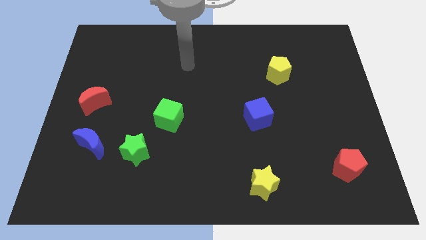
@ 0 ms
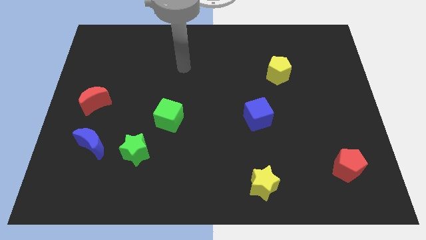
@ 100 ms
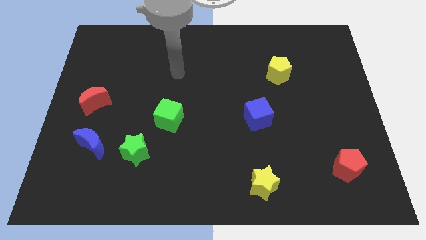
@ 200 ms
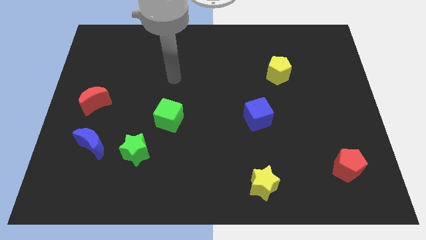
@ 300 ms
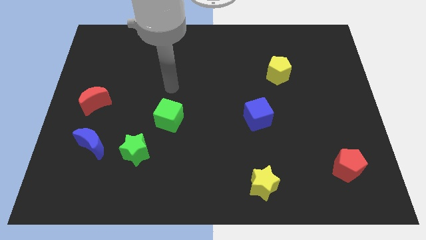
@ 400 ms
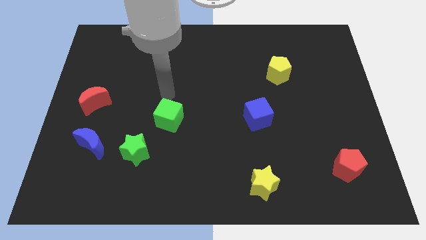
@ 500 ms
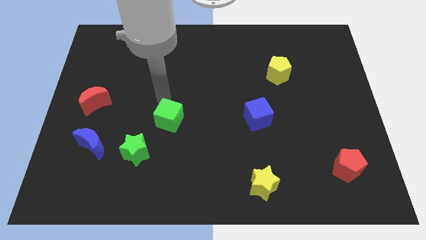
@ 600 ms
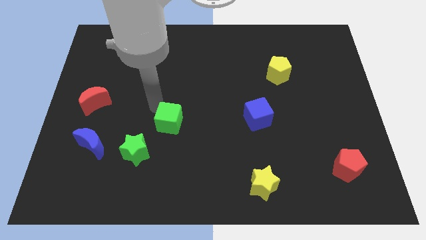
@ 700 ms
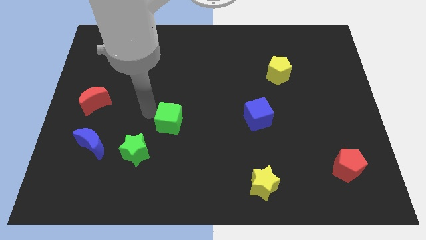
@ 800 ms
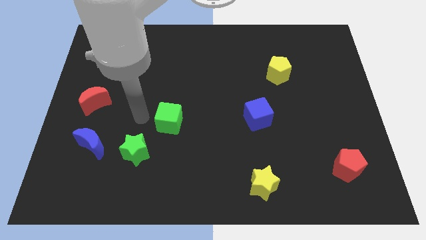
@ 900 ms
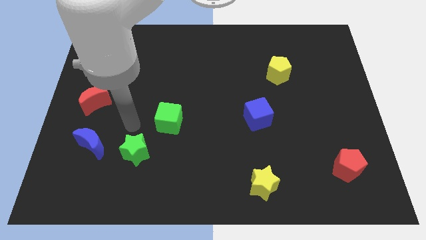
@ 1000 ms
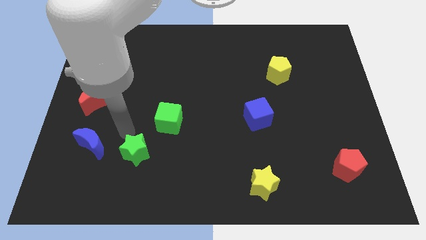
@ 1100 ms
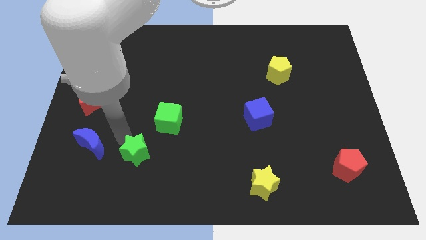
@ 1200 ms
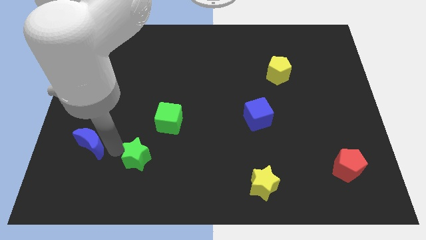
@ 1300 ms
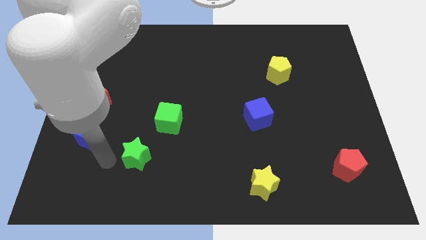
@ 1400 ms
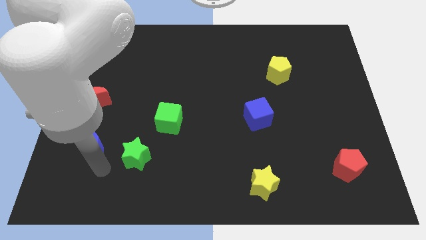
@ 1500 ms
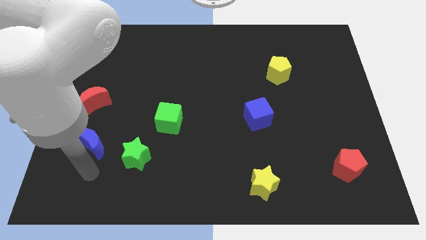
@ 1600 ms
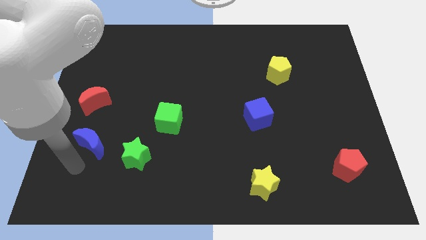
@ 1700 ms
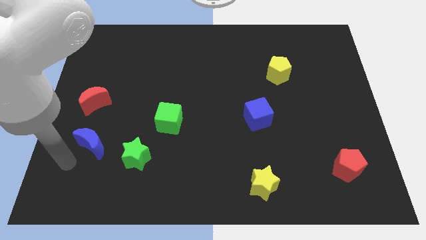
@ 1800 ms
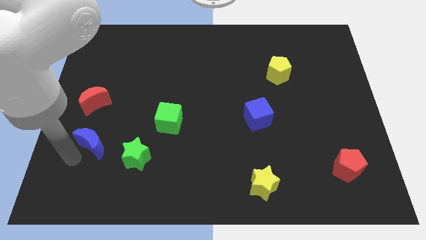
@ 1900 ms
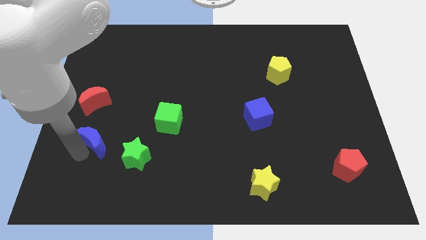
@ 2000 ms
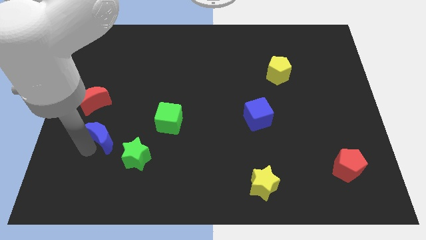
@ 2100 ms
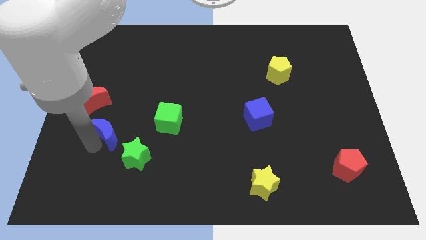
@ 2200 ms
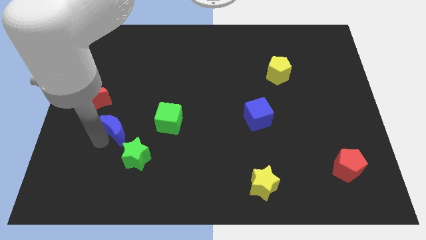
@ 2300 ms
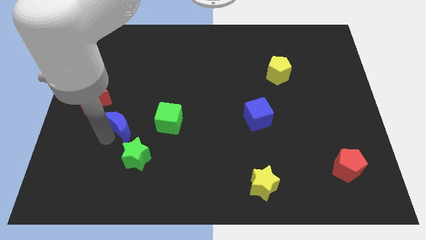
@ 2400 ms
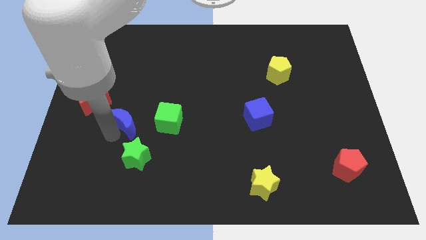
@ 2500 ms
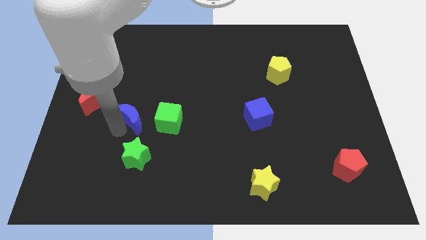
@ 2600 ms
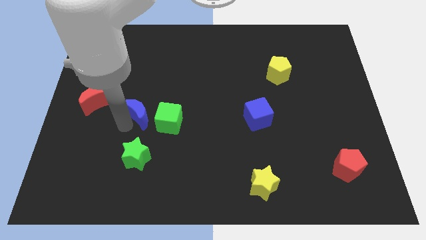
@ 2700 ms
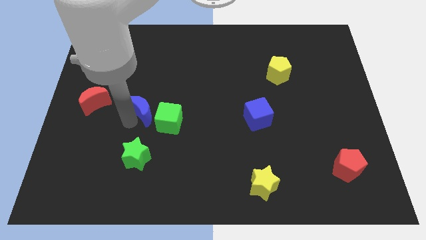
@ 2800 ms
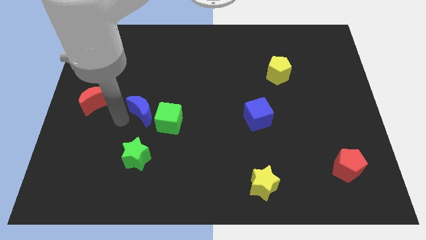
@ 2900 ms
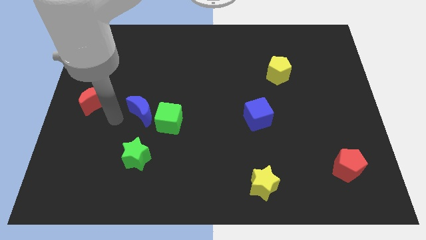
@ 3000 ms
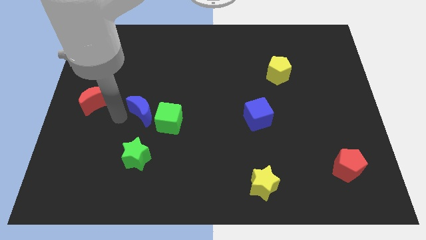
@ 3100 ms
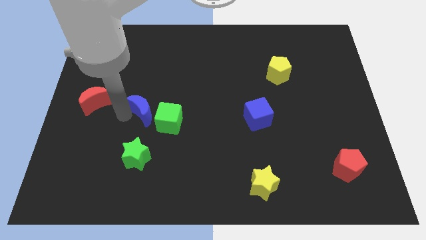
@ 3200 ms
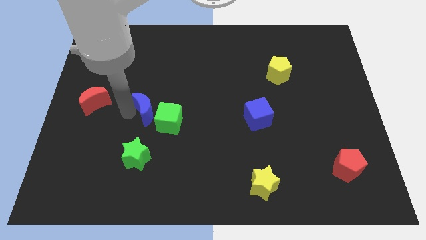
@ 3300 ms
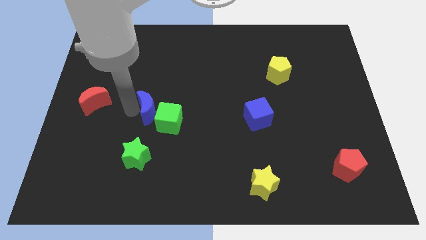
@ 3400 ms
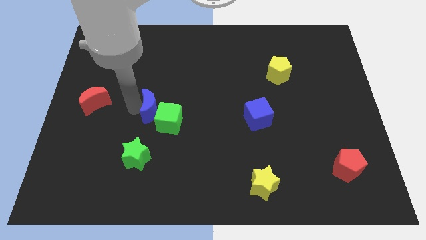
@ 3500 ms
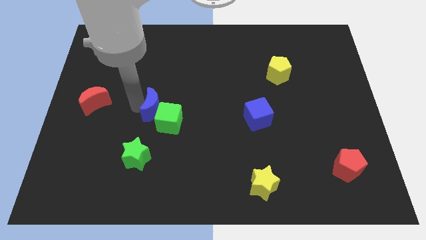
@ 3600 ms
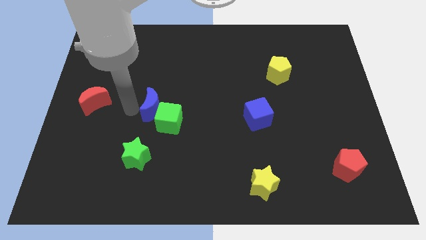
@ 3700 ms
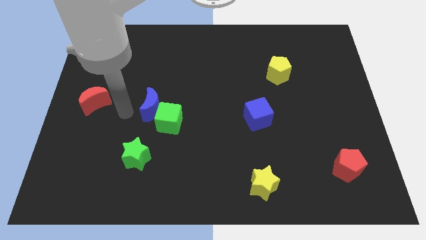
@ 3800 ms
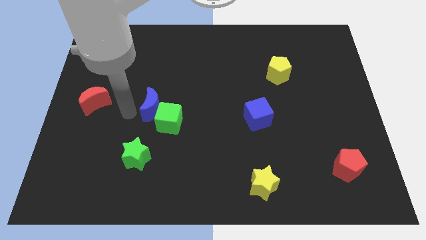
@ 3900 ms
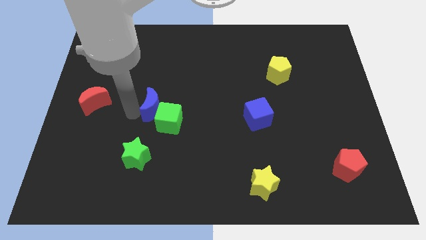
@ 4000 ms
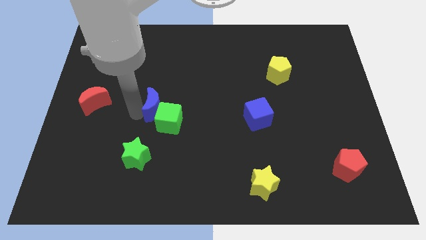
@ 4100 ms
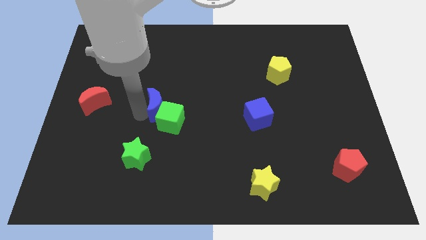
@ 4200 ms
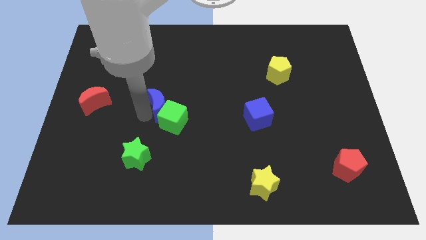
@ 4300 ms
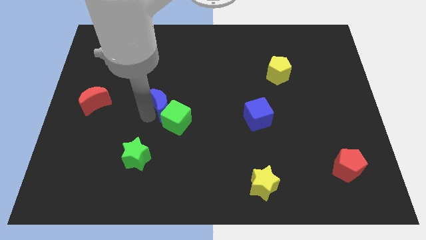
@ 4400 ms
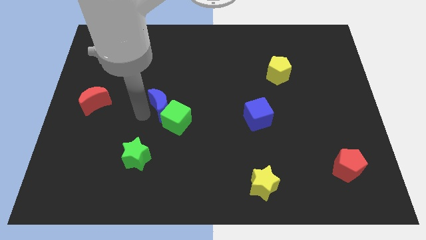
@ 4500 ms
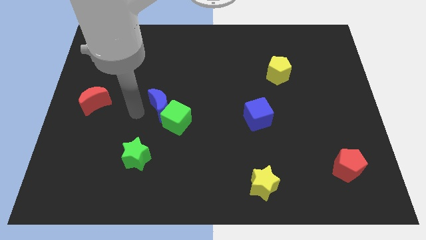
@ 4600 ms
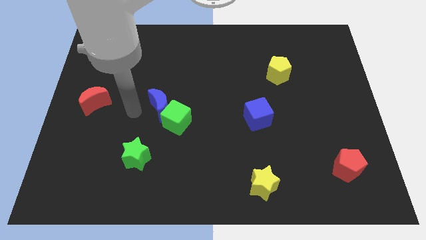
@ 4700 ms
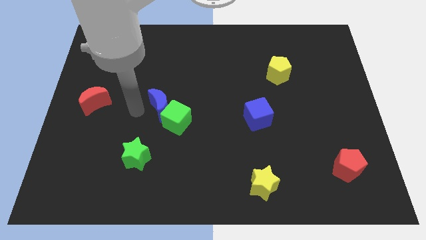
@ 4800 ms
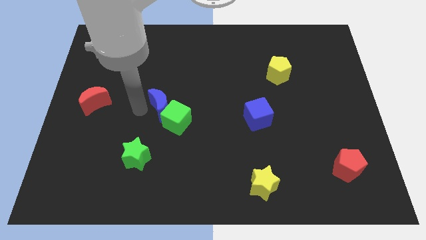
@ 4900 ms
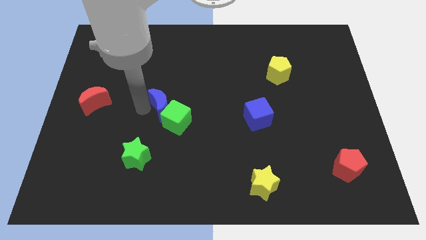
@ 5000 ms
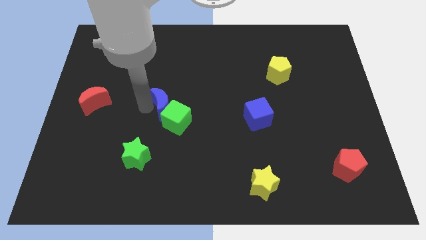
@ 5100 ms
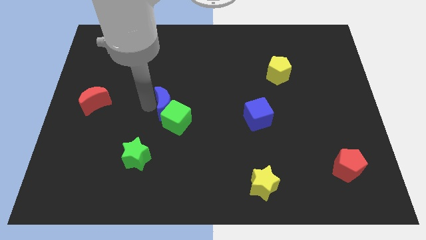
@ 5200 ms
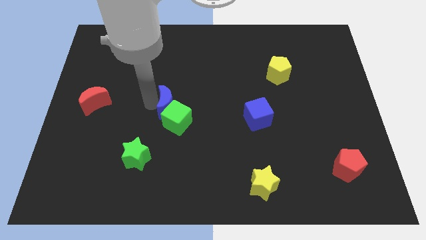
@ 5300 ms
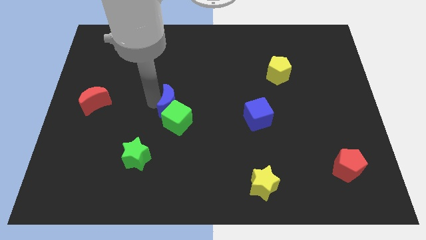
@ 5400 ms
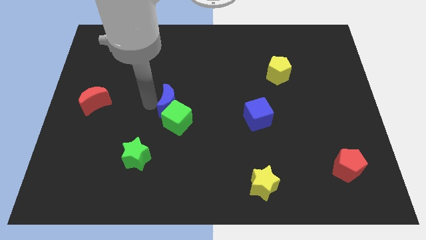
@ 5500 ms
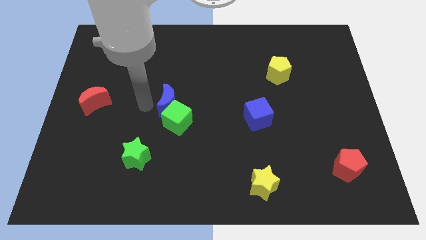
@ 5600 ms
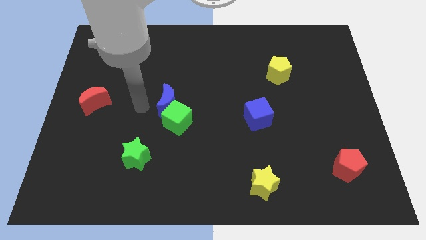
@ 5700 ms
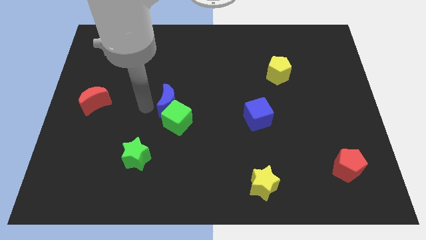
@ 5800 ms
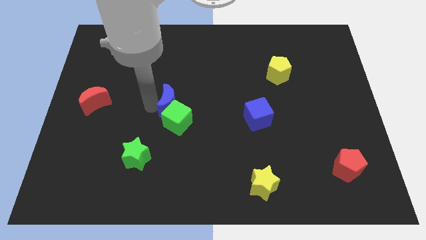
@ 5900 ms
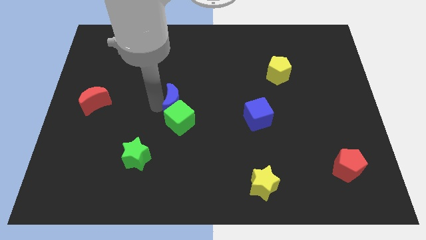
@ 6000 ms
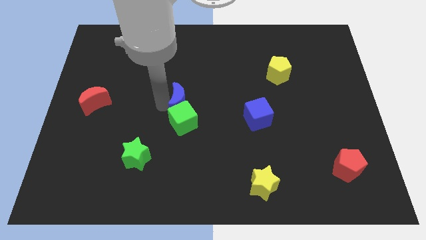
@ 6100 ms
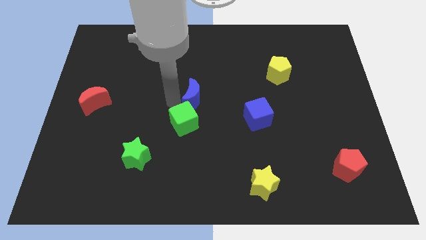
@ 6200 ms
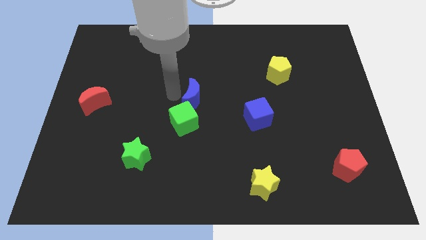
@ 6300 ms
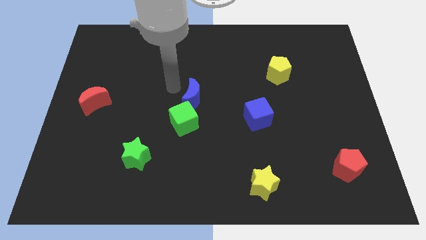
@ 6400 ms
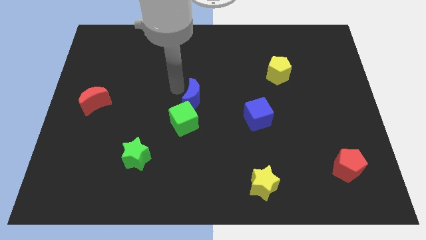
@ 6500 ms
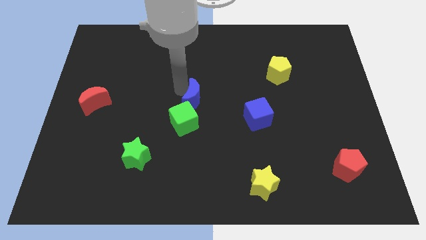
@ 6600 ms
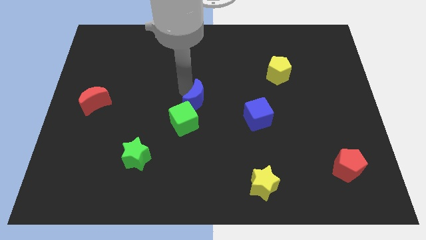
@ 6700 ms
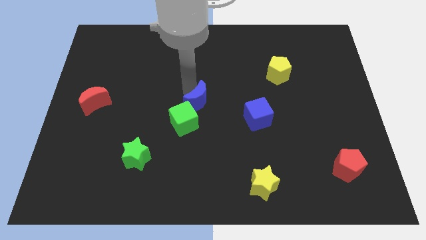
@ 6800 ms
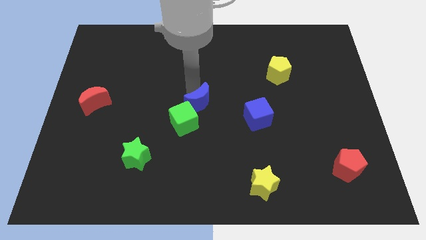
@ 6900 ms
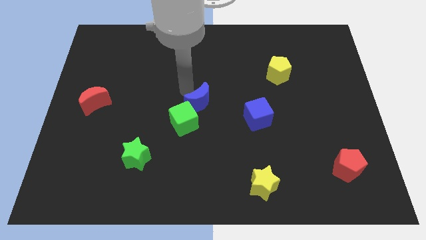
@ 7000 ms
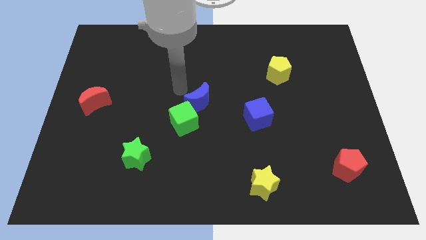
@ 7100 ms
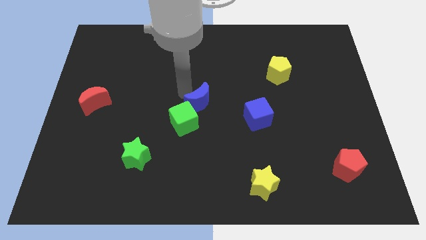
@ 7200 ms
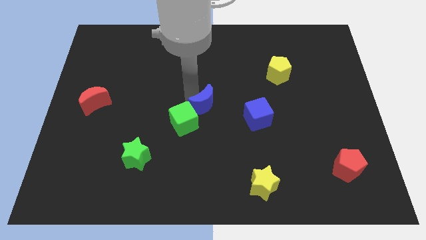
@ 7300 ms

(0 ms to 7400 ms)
push the blue moon to the right side of the green cube

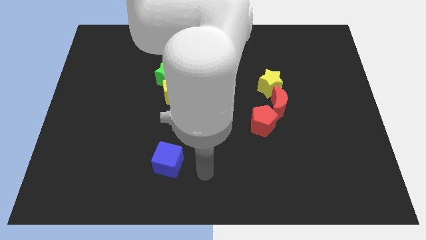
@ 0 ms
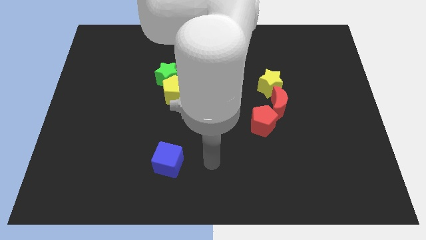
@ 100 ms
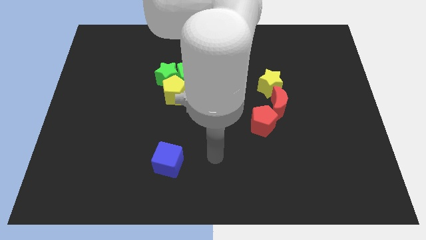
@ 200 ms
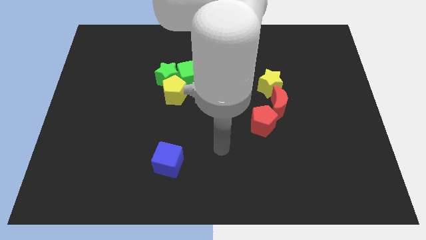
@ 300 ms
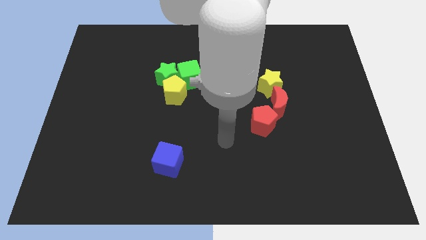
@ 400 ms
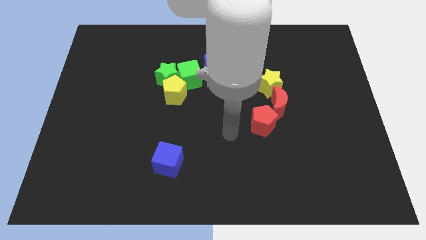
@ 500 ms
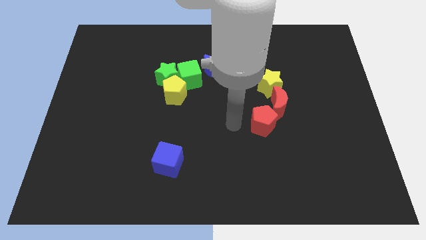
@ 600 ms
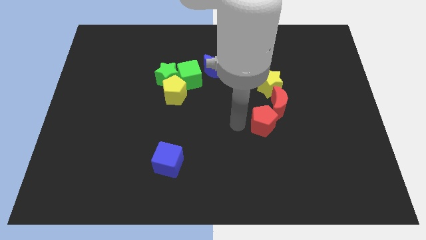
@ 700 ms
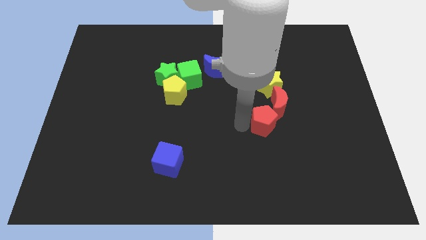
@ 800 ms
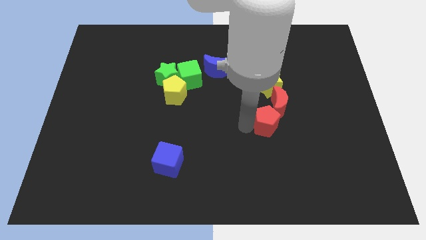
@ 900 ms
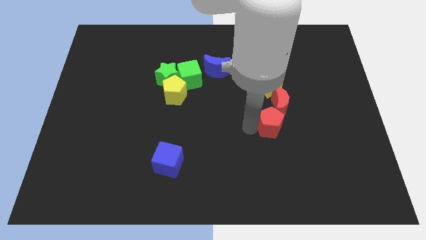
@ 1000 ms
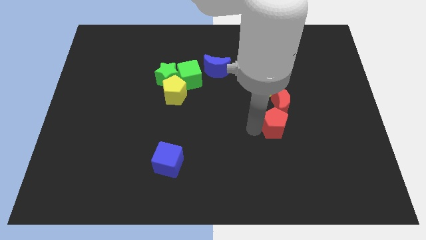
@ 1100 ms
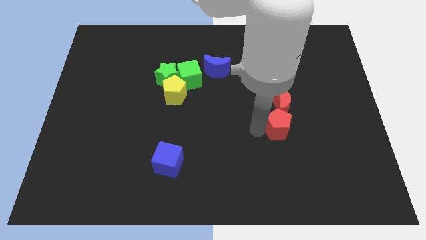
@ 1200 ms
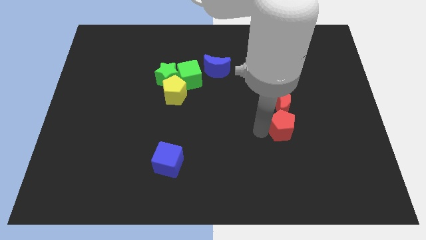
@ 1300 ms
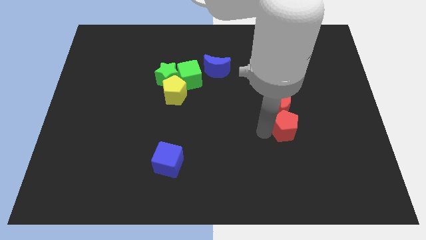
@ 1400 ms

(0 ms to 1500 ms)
put the red pentagon diagonally down and to the right of the red moon

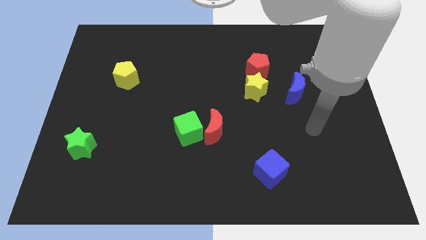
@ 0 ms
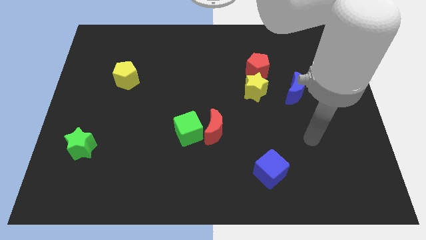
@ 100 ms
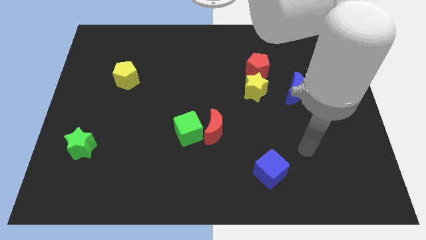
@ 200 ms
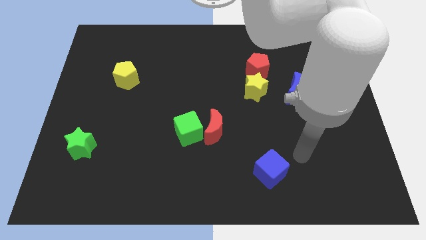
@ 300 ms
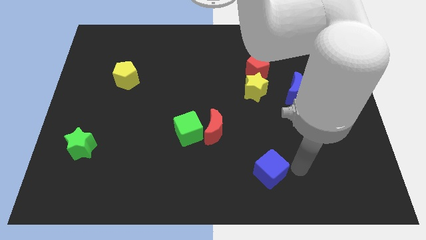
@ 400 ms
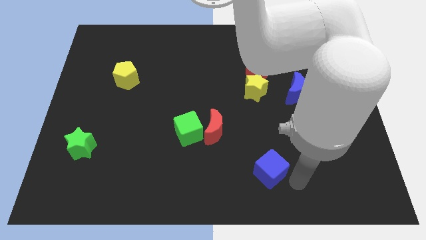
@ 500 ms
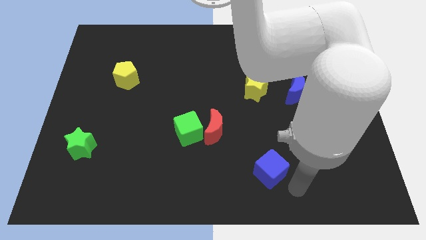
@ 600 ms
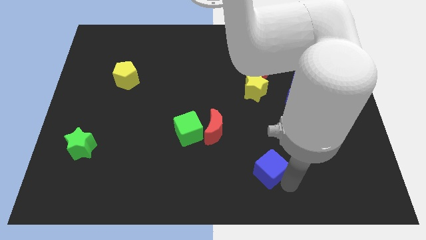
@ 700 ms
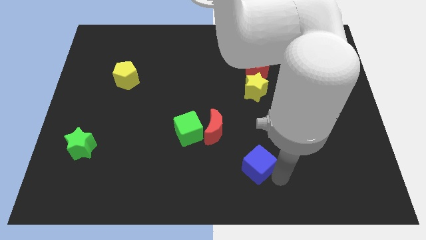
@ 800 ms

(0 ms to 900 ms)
move the blue cube to the bottom right of the red moon
